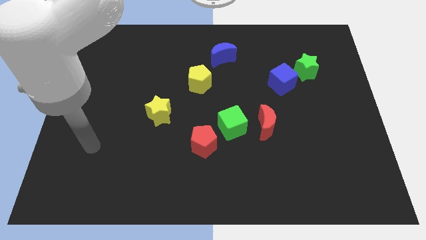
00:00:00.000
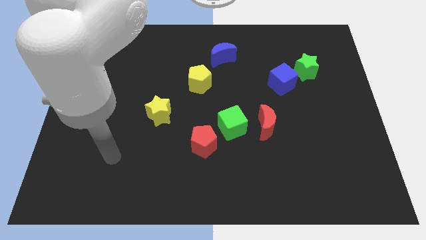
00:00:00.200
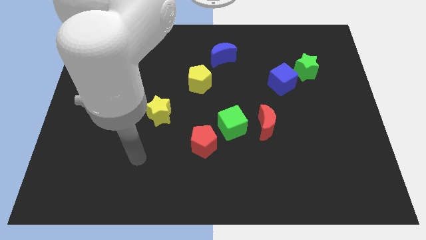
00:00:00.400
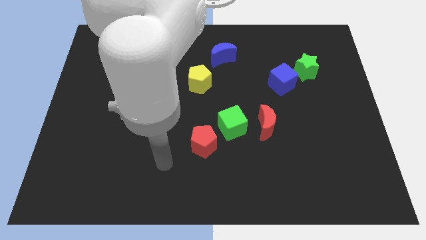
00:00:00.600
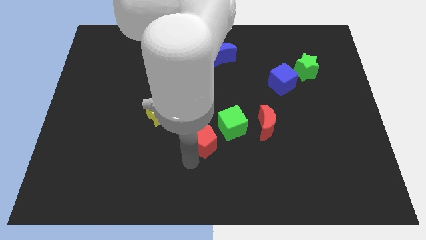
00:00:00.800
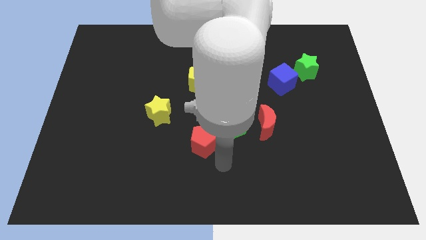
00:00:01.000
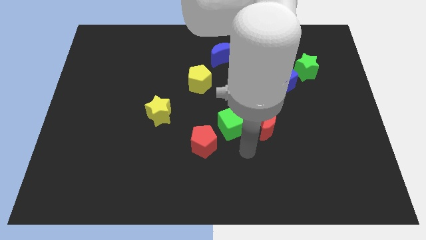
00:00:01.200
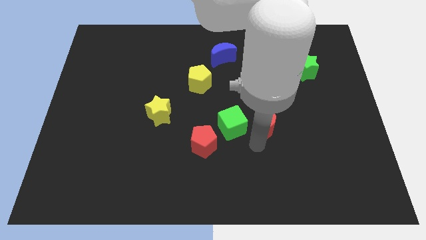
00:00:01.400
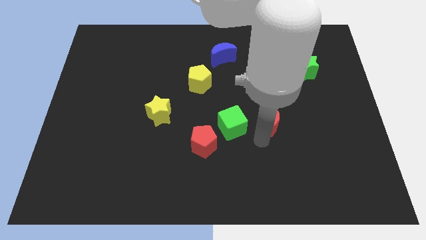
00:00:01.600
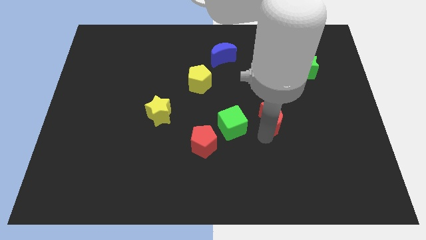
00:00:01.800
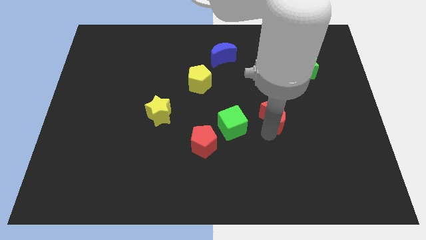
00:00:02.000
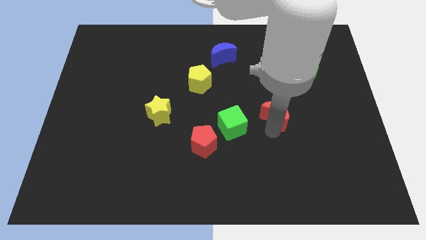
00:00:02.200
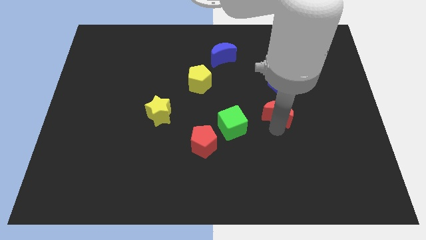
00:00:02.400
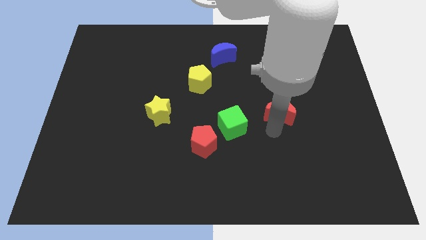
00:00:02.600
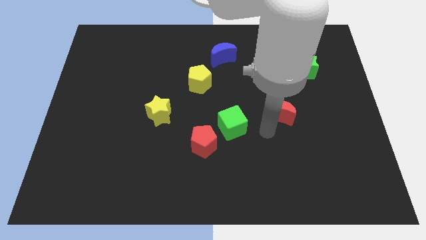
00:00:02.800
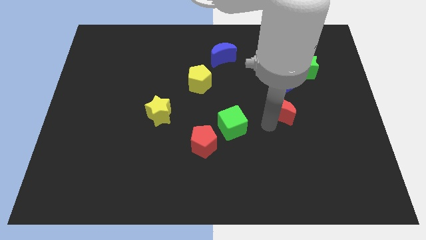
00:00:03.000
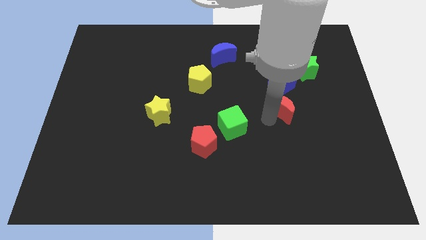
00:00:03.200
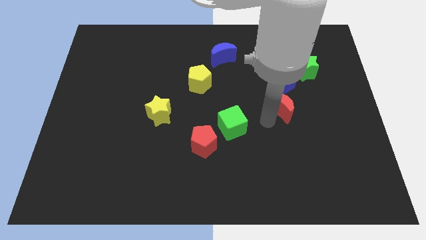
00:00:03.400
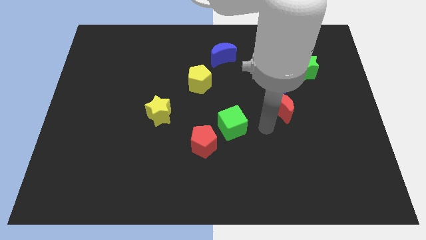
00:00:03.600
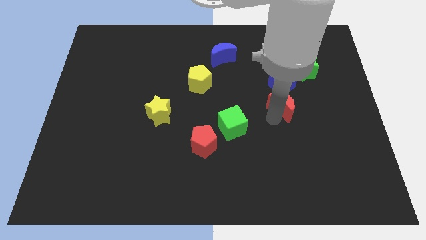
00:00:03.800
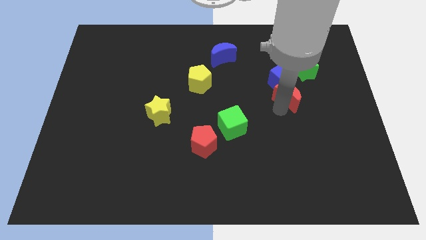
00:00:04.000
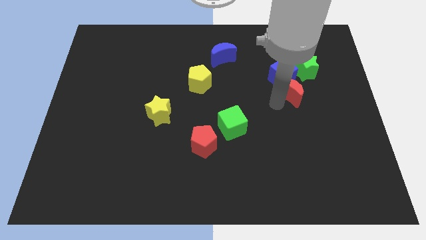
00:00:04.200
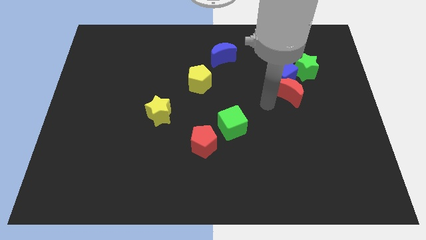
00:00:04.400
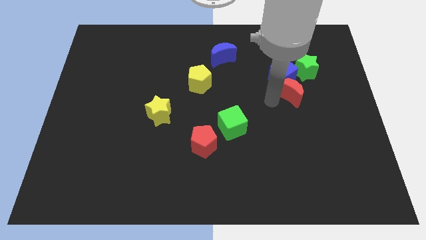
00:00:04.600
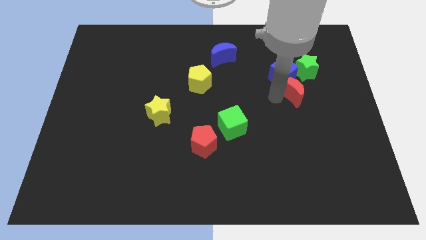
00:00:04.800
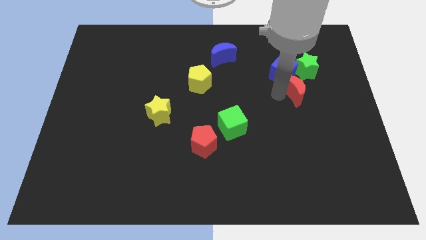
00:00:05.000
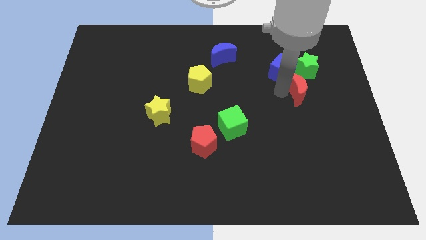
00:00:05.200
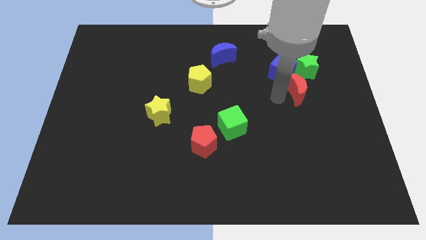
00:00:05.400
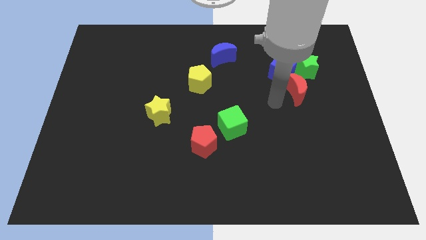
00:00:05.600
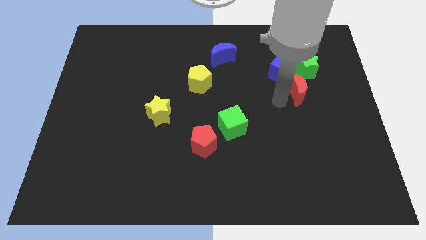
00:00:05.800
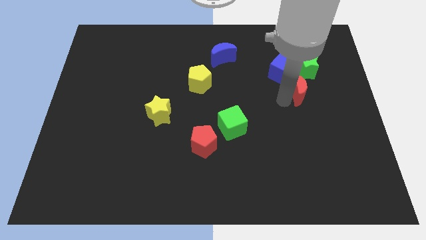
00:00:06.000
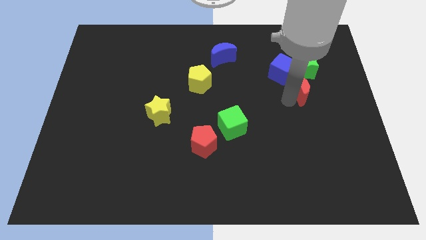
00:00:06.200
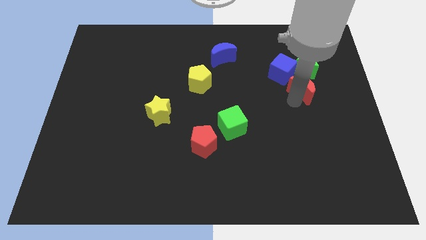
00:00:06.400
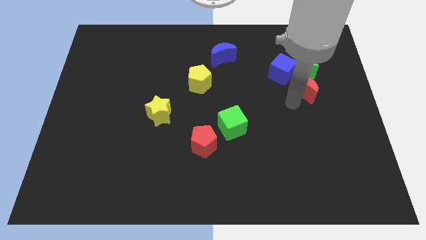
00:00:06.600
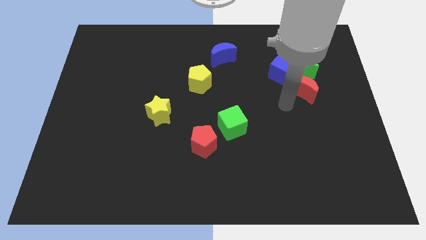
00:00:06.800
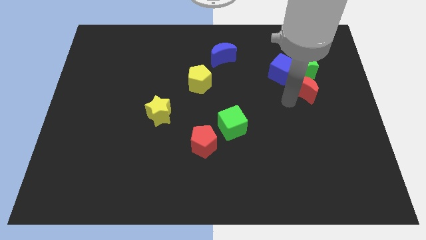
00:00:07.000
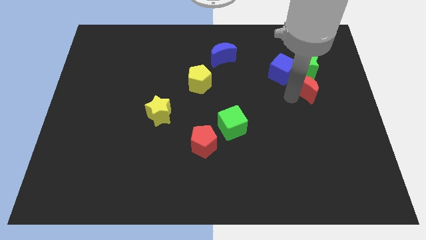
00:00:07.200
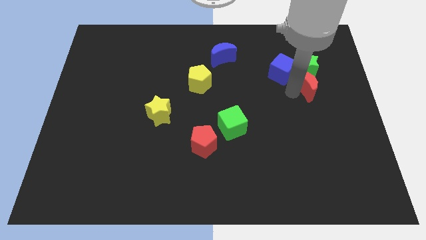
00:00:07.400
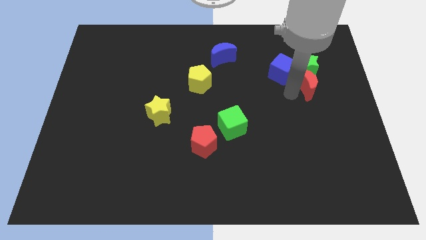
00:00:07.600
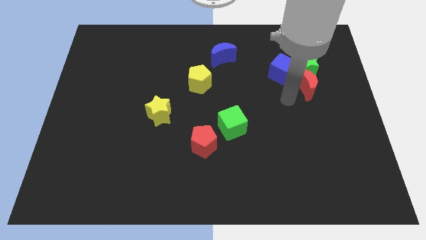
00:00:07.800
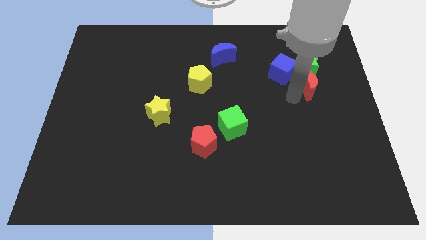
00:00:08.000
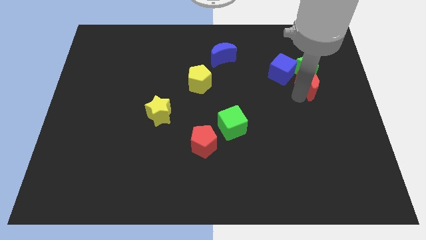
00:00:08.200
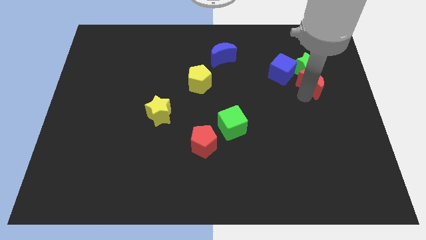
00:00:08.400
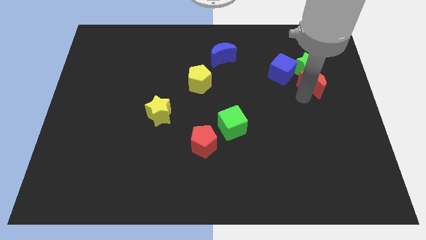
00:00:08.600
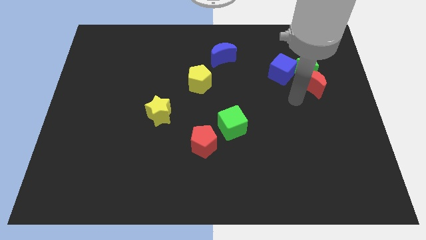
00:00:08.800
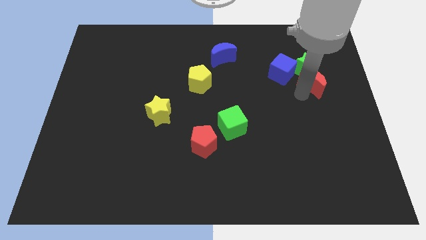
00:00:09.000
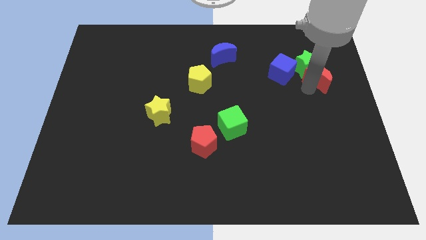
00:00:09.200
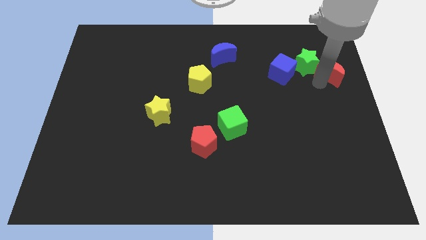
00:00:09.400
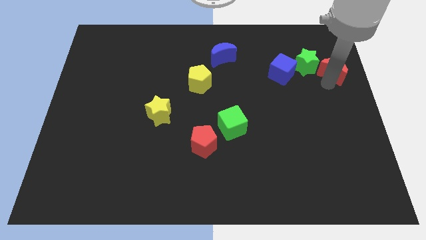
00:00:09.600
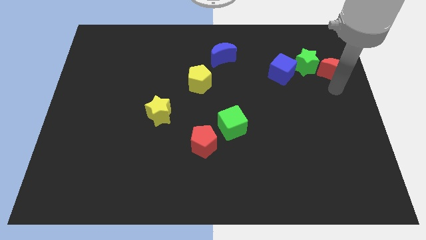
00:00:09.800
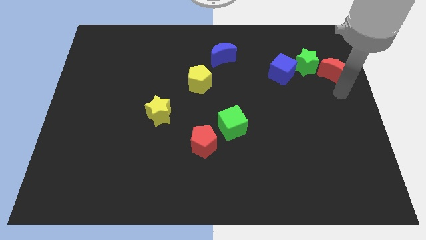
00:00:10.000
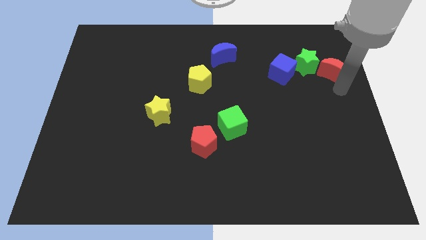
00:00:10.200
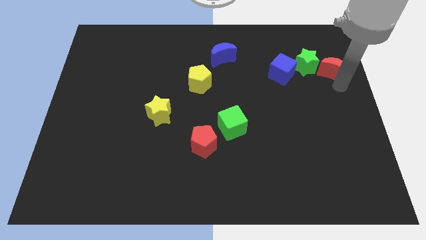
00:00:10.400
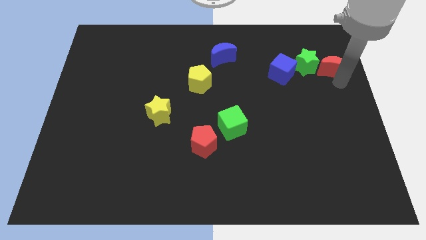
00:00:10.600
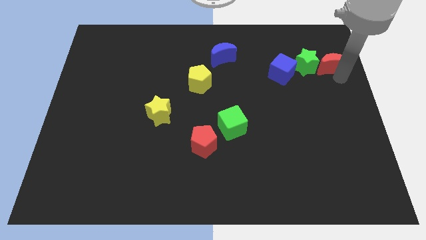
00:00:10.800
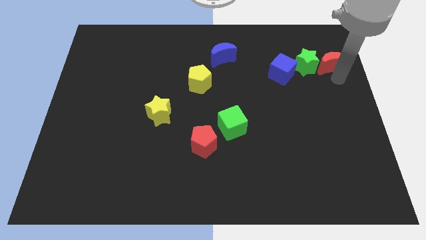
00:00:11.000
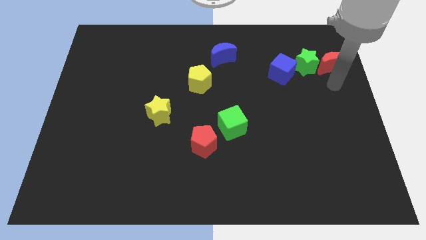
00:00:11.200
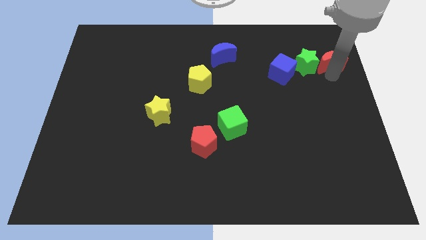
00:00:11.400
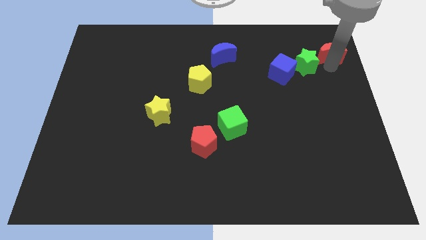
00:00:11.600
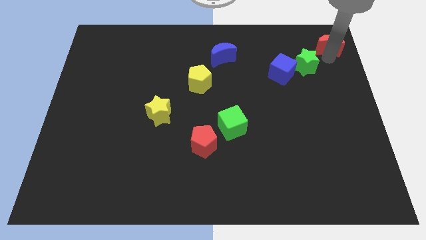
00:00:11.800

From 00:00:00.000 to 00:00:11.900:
push the red moon to the upper right corner

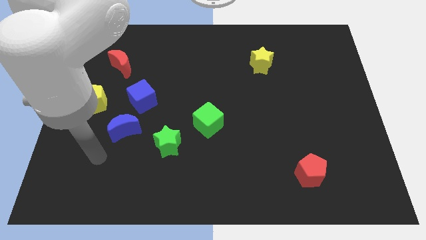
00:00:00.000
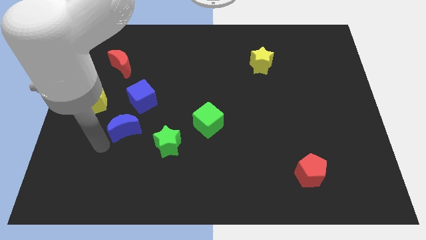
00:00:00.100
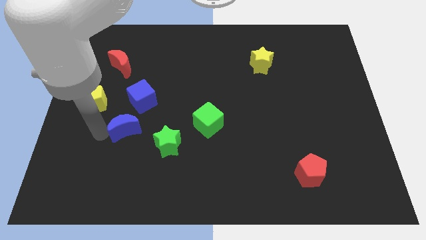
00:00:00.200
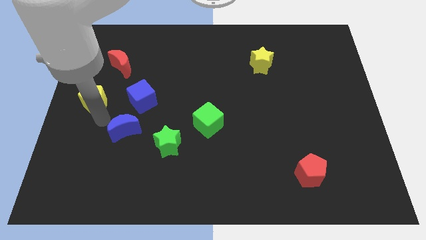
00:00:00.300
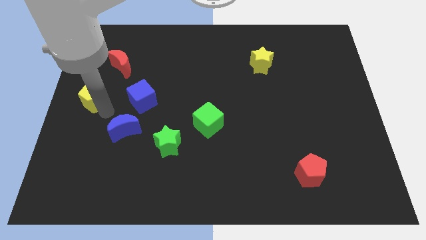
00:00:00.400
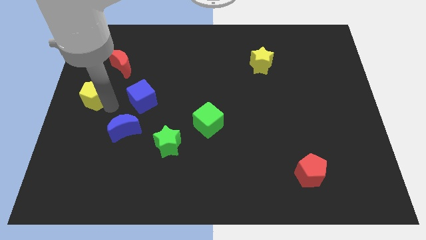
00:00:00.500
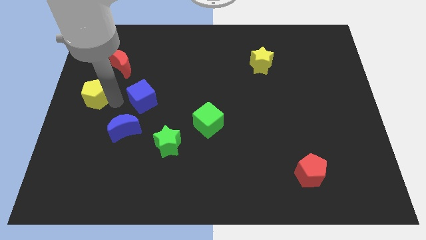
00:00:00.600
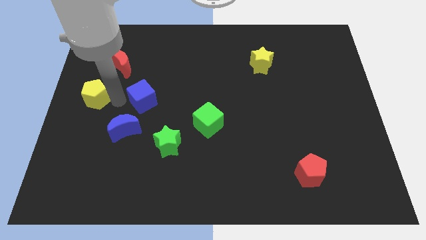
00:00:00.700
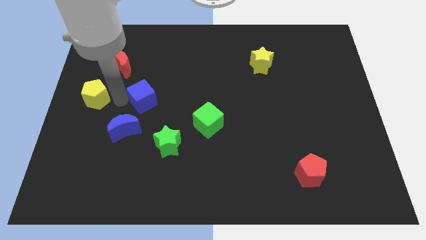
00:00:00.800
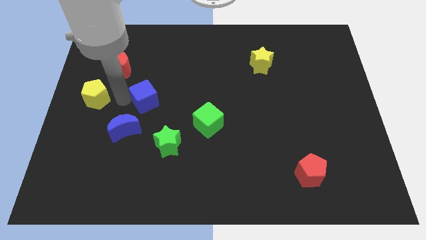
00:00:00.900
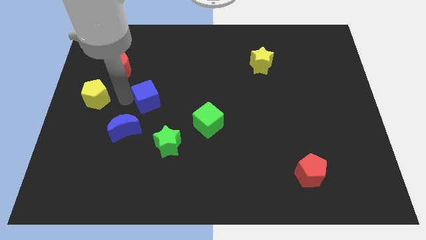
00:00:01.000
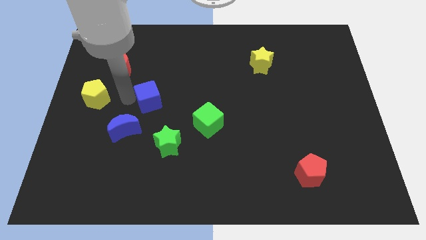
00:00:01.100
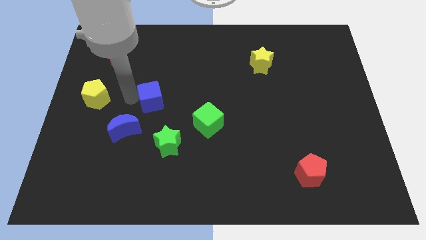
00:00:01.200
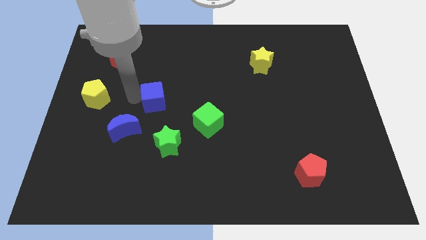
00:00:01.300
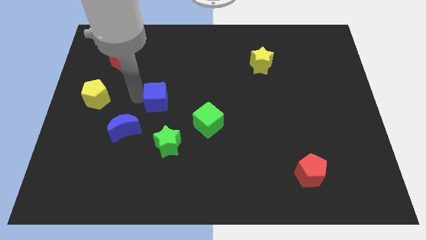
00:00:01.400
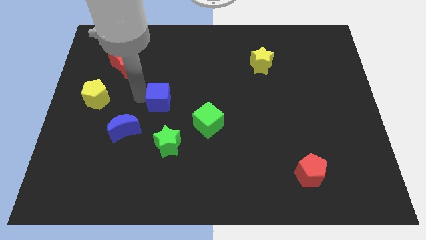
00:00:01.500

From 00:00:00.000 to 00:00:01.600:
put the blue cube to the center
